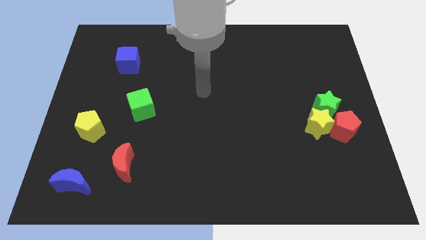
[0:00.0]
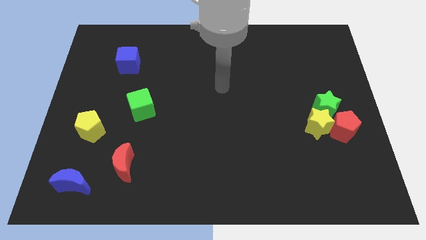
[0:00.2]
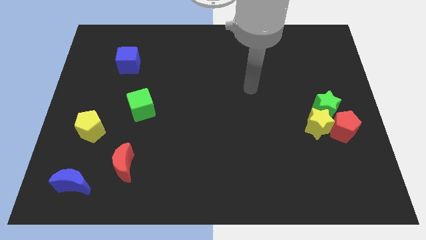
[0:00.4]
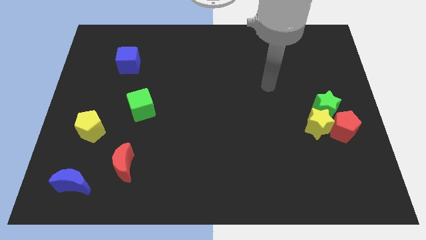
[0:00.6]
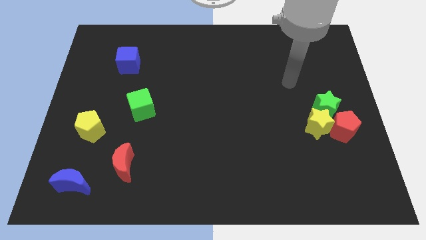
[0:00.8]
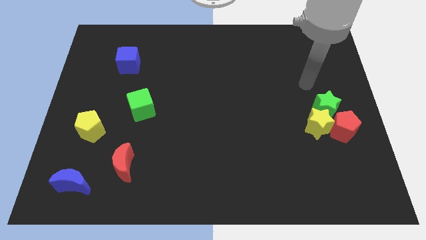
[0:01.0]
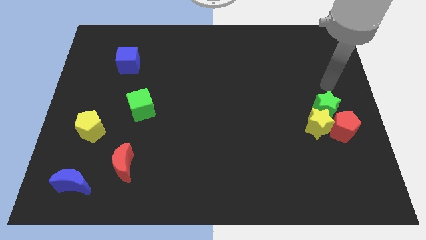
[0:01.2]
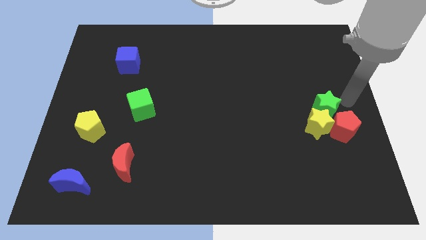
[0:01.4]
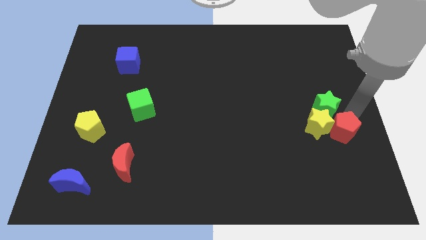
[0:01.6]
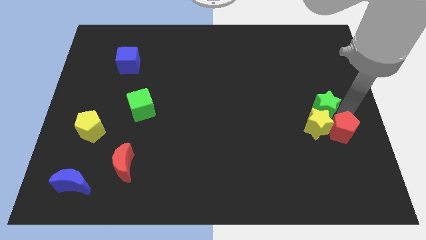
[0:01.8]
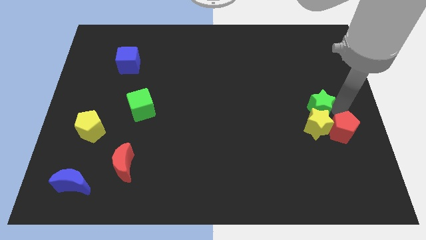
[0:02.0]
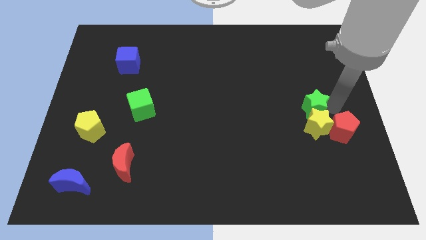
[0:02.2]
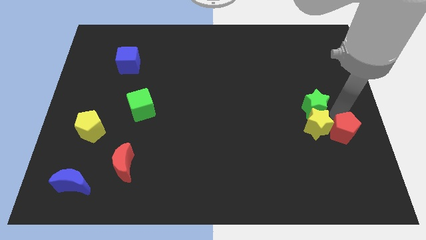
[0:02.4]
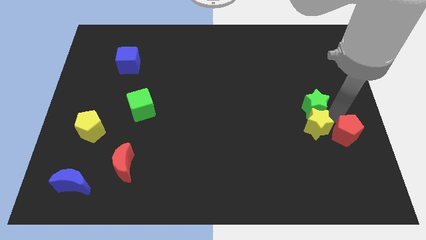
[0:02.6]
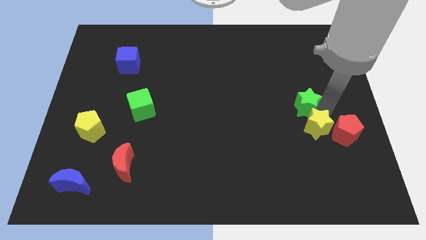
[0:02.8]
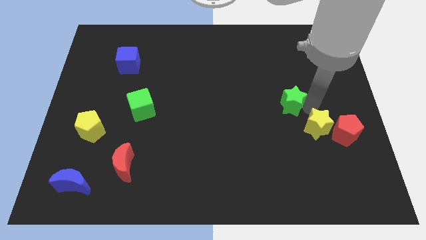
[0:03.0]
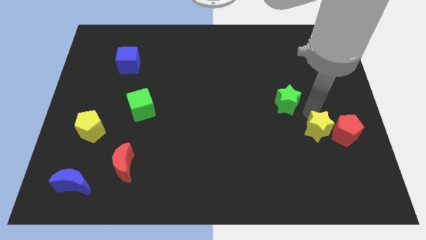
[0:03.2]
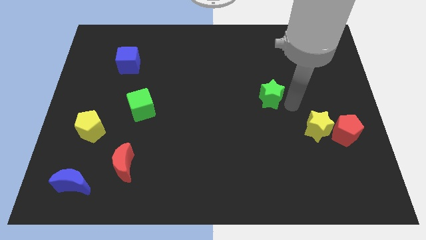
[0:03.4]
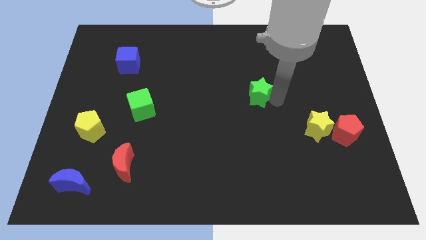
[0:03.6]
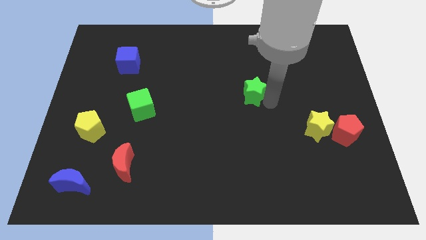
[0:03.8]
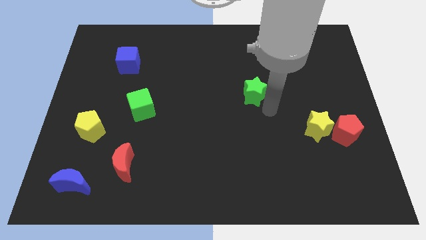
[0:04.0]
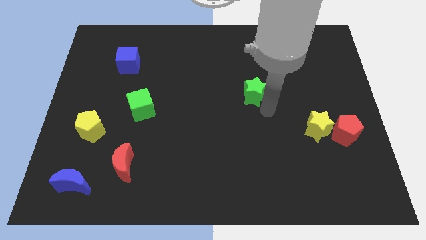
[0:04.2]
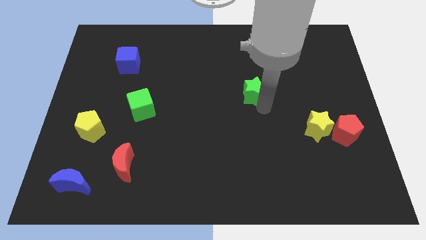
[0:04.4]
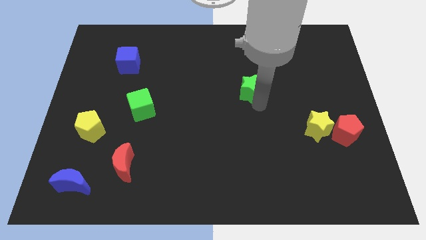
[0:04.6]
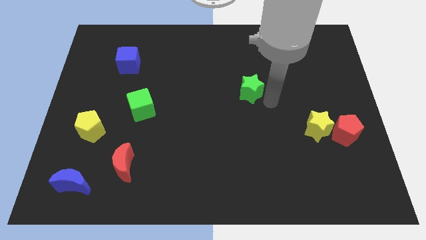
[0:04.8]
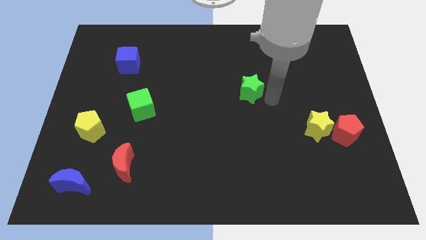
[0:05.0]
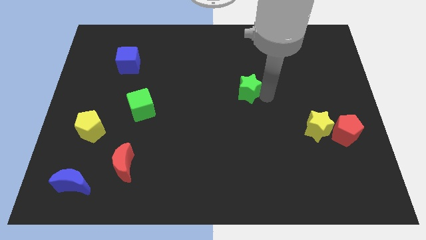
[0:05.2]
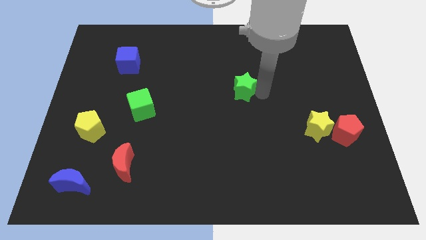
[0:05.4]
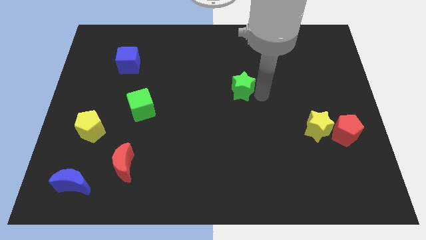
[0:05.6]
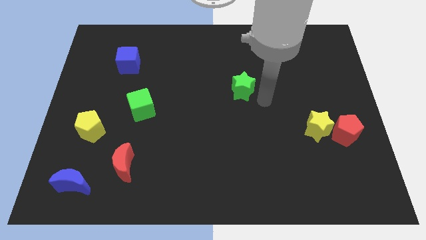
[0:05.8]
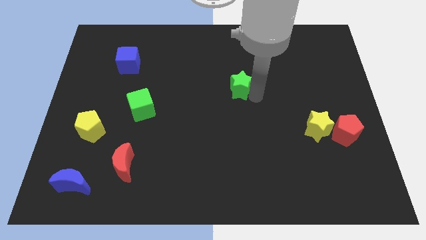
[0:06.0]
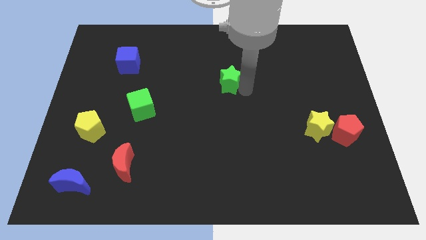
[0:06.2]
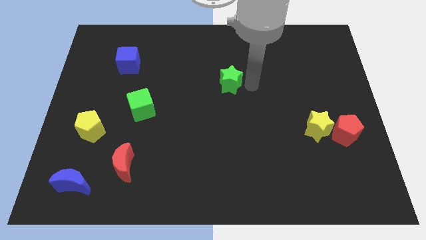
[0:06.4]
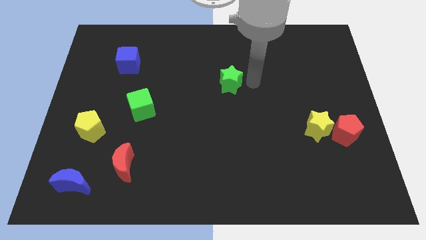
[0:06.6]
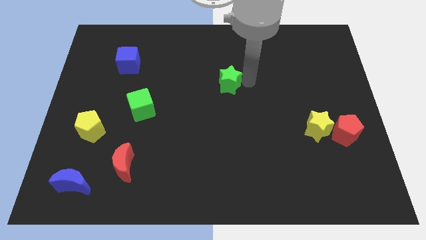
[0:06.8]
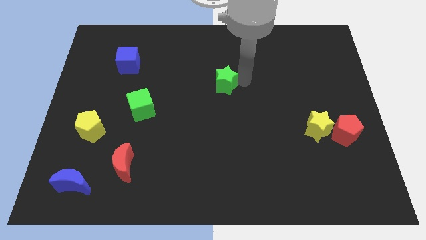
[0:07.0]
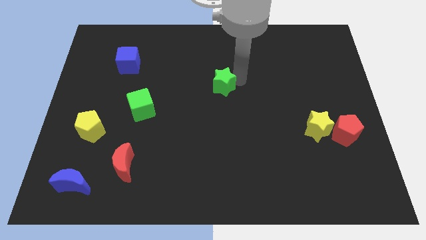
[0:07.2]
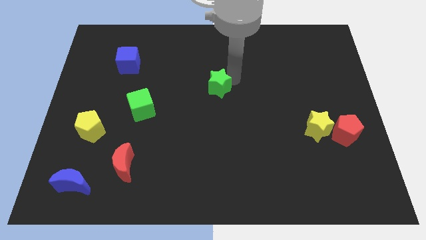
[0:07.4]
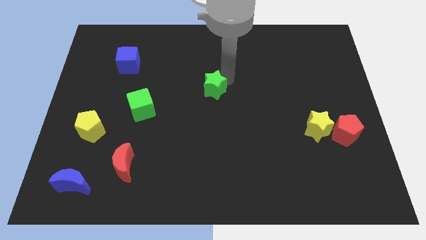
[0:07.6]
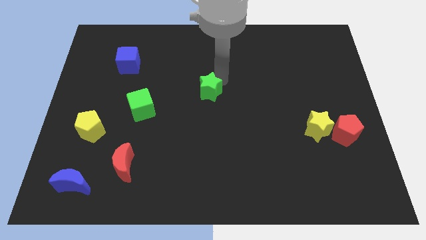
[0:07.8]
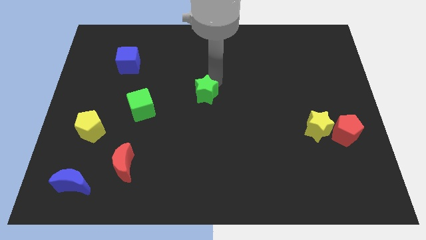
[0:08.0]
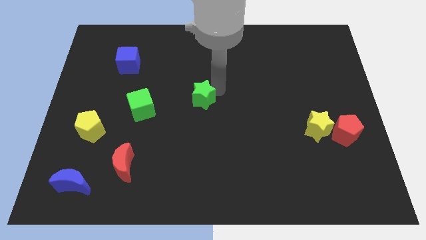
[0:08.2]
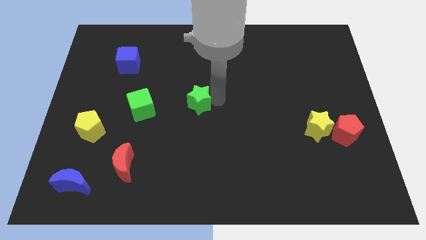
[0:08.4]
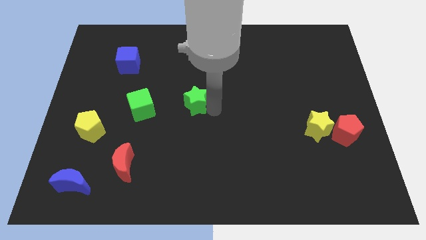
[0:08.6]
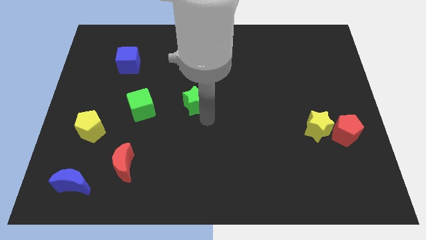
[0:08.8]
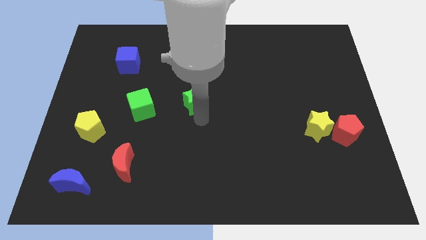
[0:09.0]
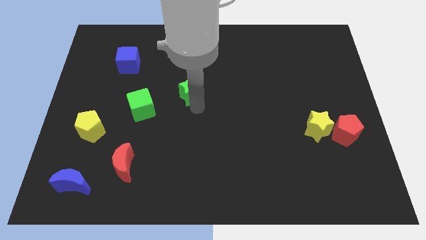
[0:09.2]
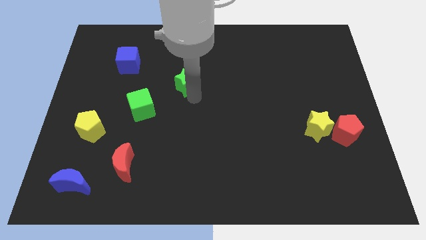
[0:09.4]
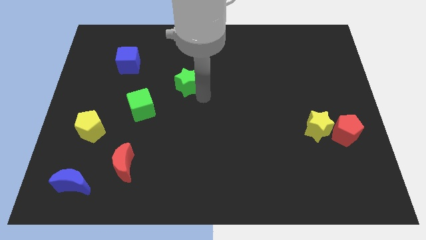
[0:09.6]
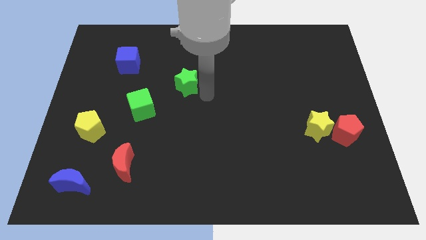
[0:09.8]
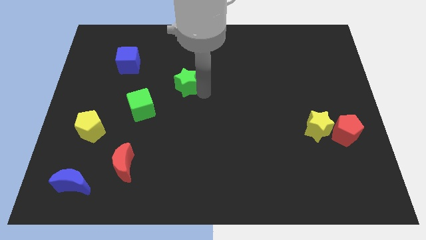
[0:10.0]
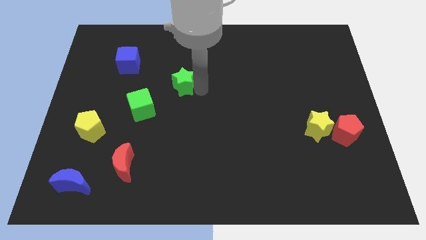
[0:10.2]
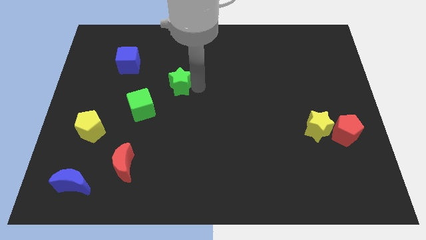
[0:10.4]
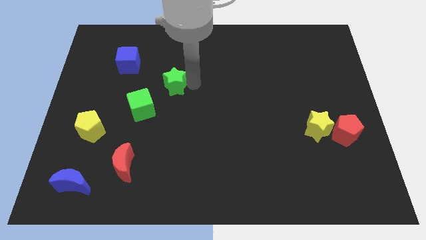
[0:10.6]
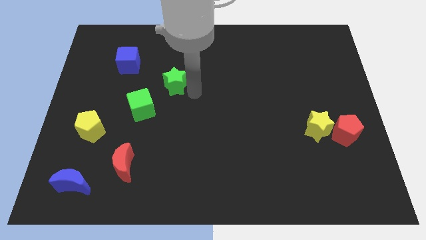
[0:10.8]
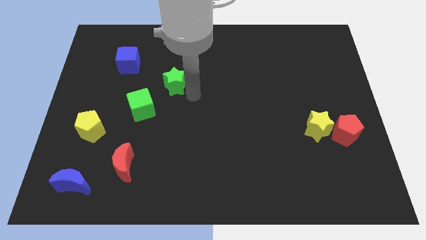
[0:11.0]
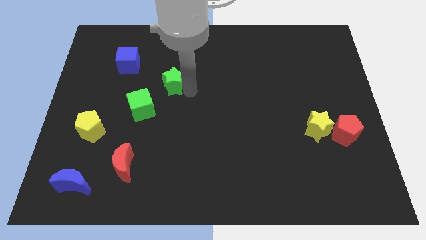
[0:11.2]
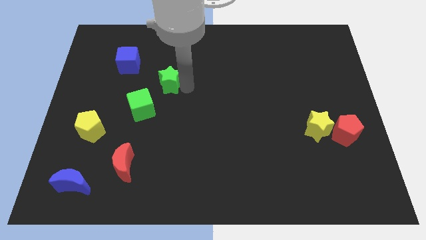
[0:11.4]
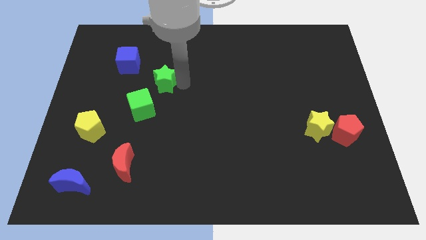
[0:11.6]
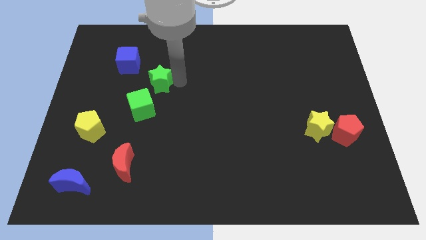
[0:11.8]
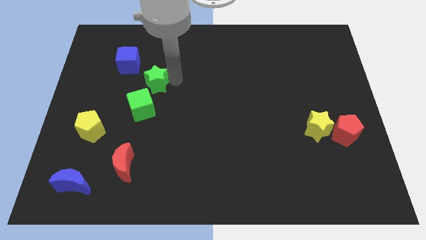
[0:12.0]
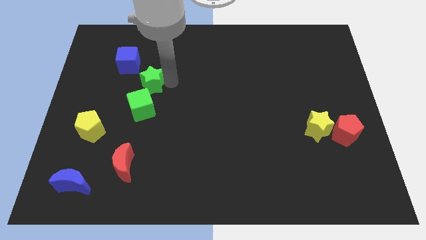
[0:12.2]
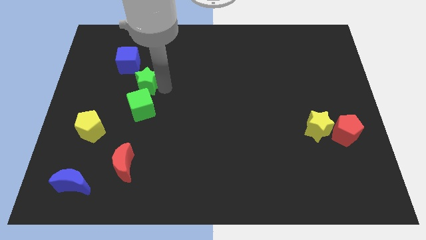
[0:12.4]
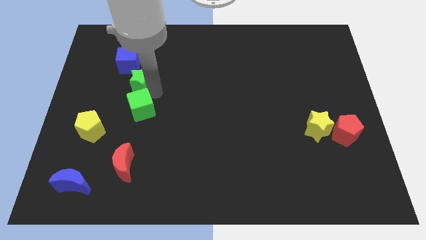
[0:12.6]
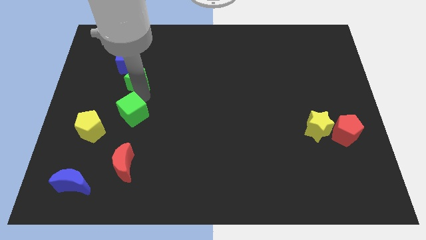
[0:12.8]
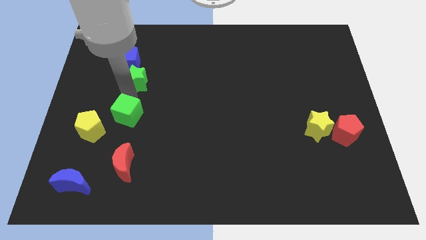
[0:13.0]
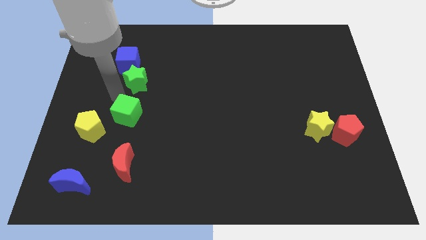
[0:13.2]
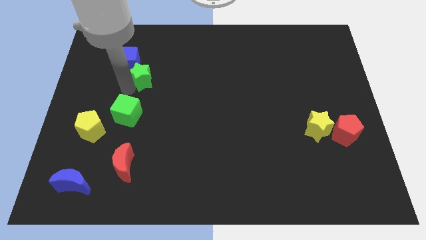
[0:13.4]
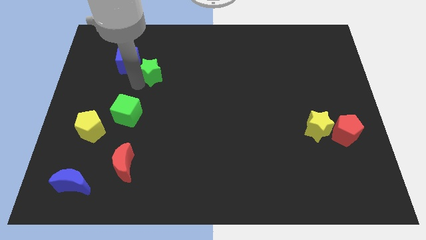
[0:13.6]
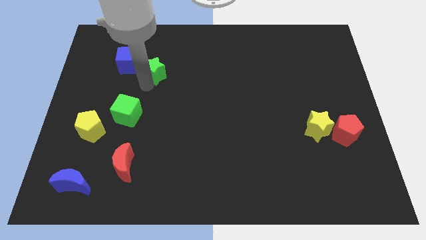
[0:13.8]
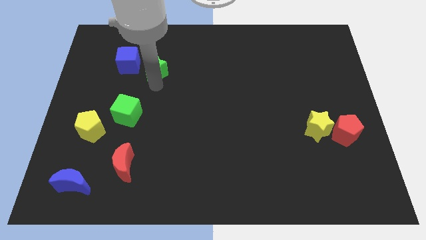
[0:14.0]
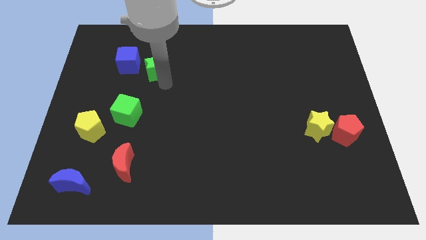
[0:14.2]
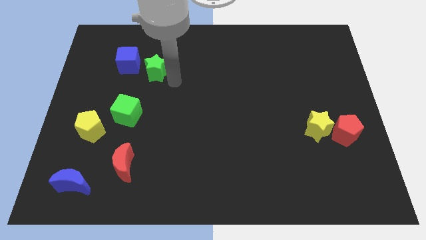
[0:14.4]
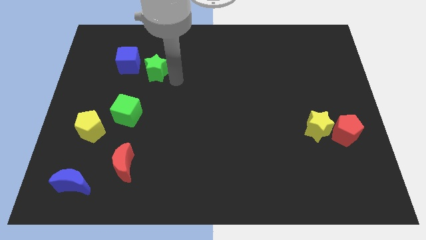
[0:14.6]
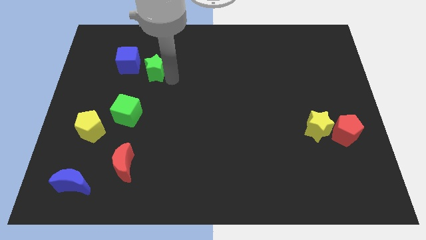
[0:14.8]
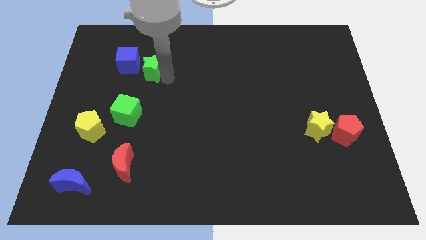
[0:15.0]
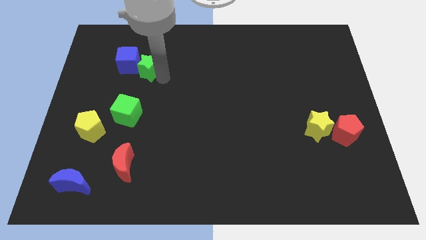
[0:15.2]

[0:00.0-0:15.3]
put the green star towards the blue cube
